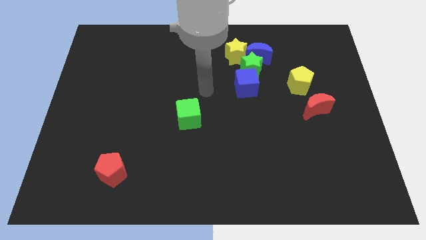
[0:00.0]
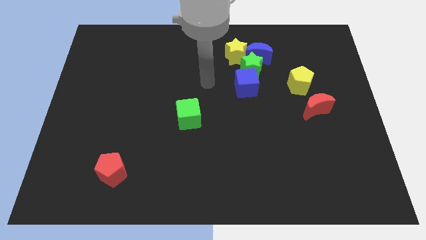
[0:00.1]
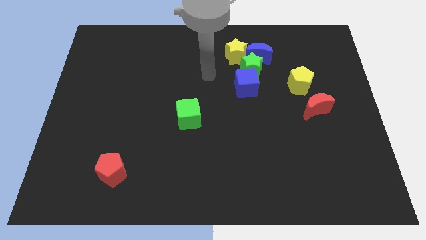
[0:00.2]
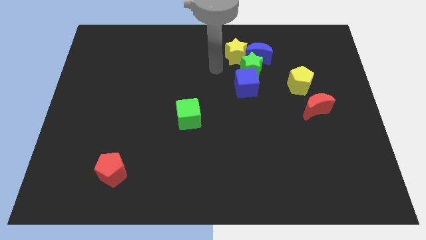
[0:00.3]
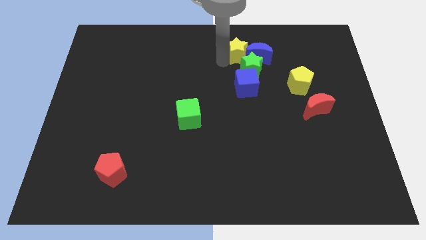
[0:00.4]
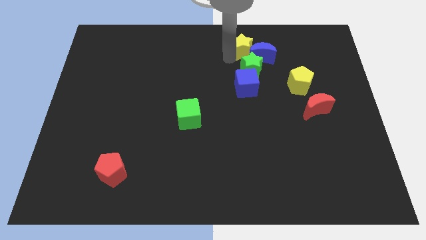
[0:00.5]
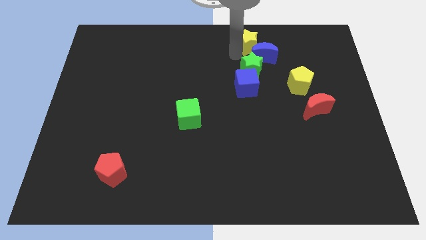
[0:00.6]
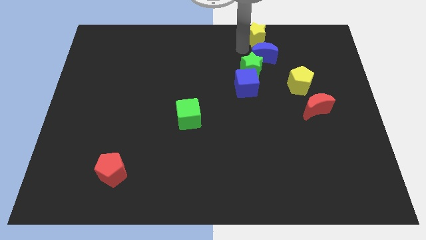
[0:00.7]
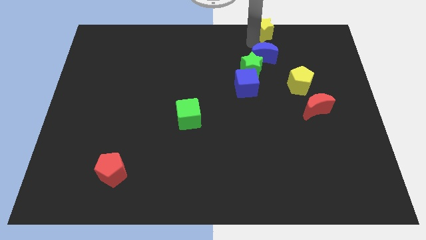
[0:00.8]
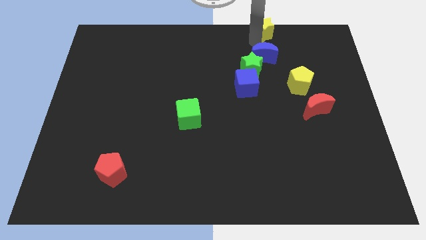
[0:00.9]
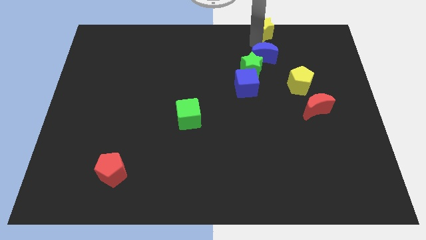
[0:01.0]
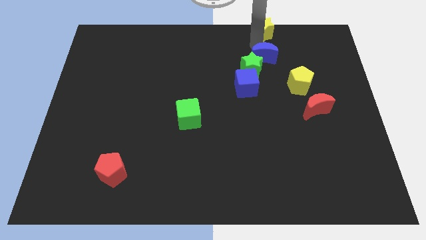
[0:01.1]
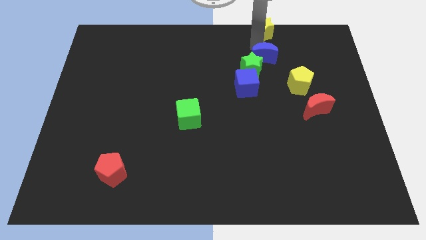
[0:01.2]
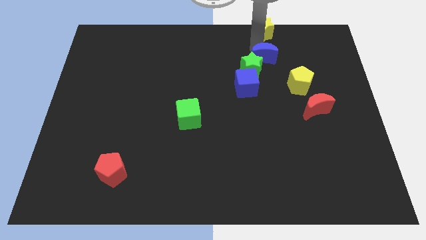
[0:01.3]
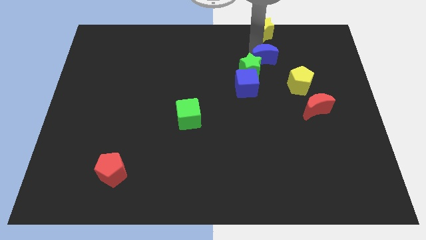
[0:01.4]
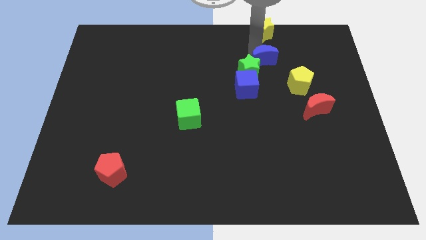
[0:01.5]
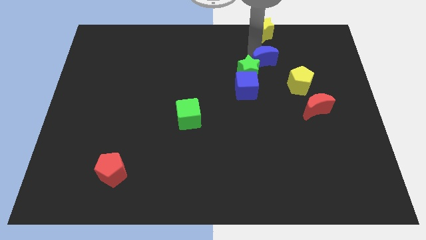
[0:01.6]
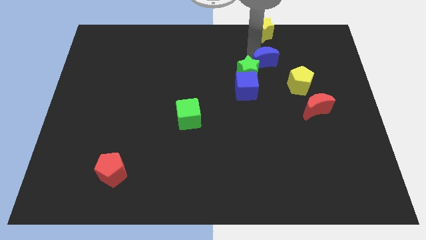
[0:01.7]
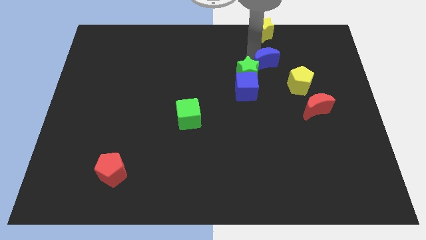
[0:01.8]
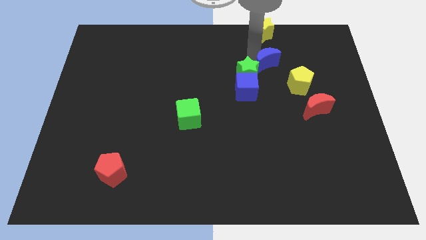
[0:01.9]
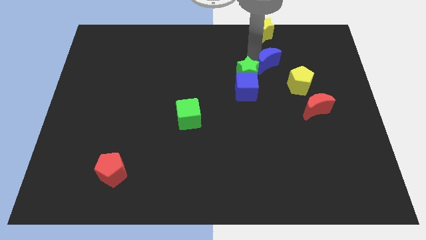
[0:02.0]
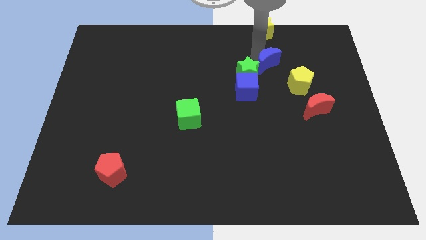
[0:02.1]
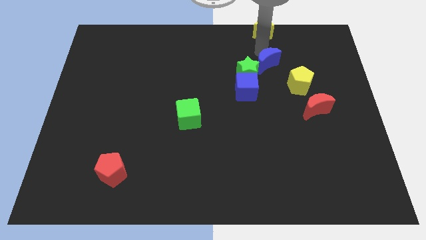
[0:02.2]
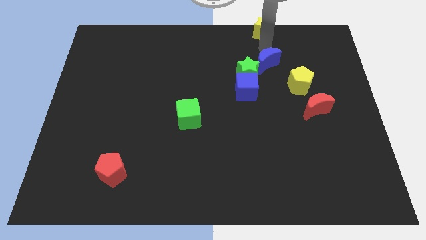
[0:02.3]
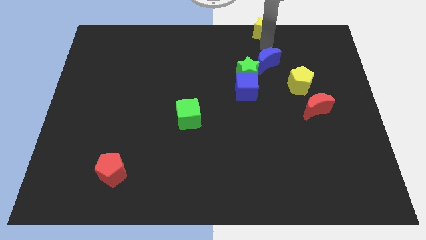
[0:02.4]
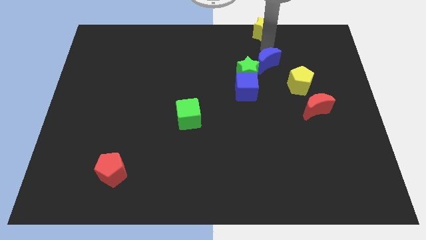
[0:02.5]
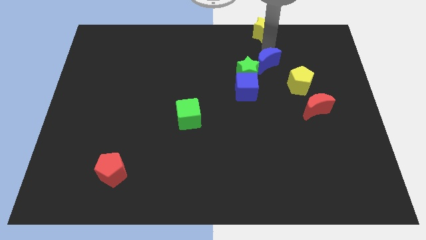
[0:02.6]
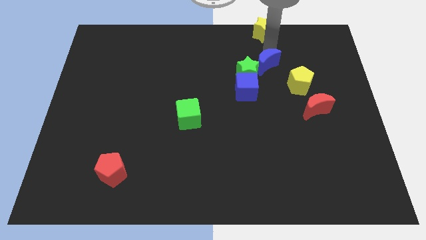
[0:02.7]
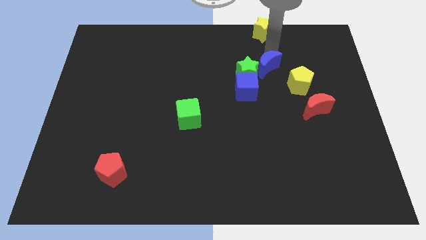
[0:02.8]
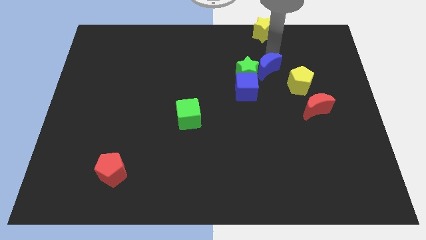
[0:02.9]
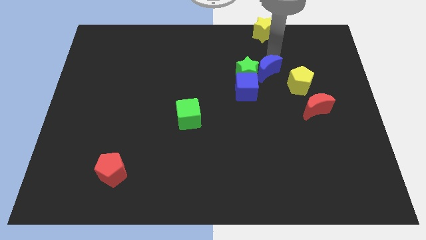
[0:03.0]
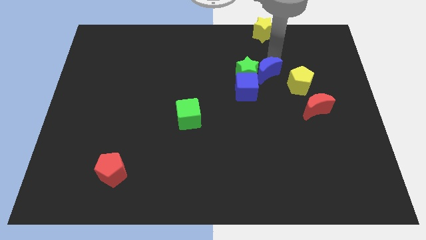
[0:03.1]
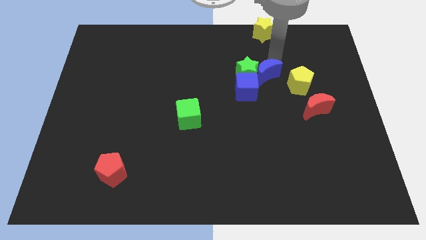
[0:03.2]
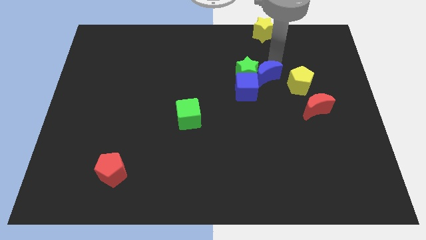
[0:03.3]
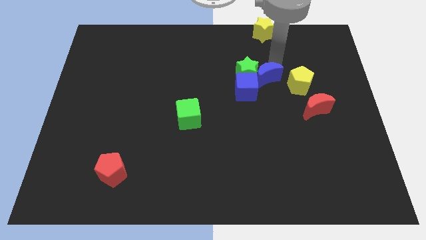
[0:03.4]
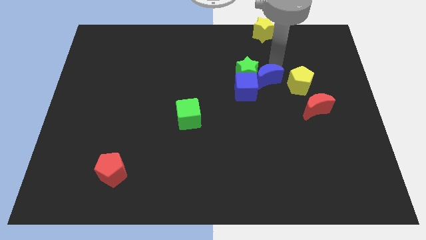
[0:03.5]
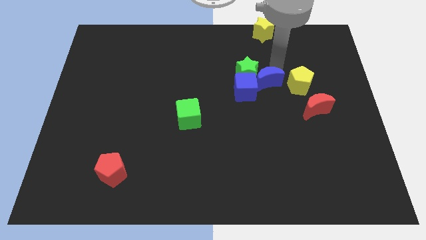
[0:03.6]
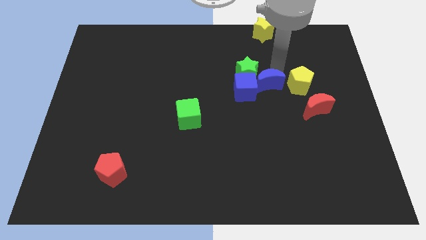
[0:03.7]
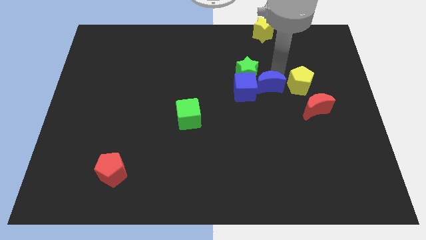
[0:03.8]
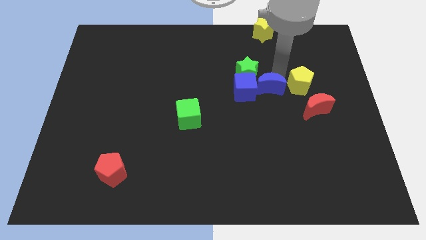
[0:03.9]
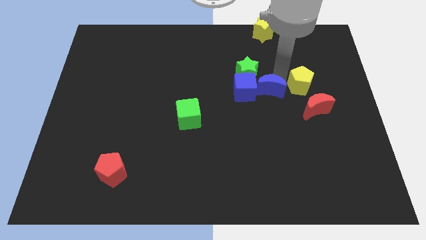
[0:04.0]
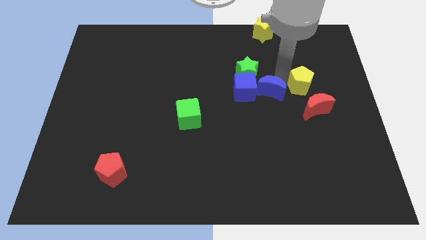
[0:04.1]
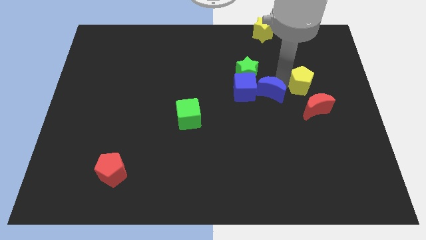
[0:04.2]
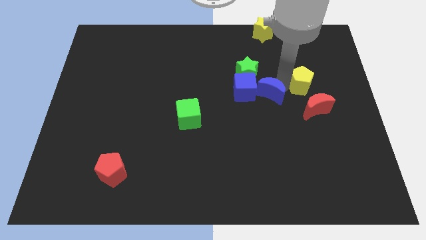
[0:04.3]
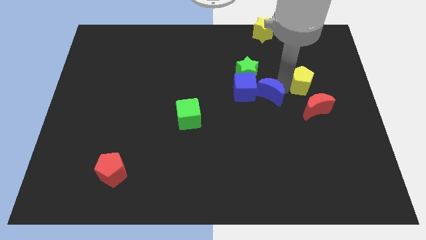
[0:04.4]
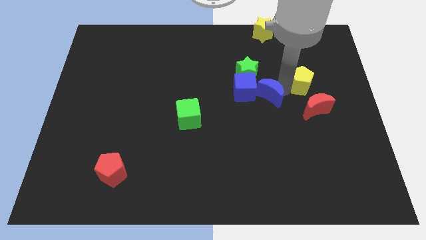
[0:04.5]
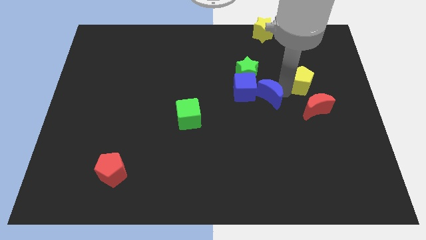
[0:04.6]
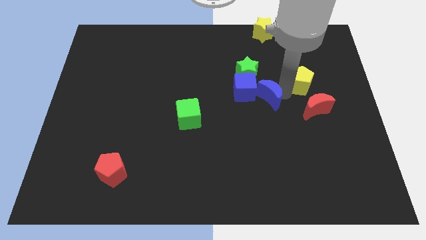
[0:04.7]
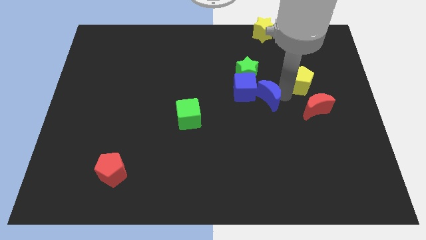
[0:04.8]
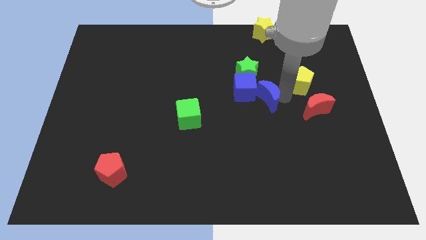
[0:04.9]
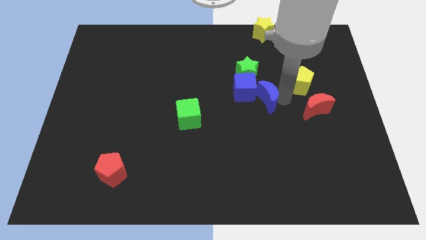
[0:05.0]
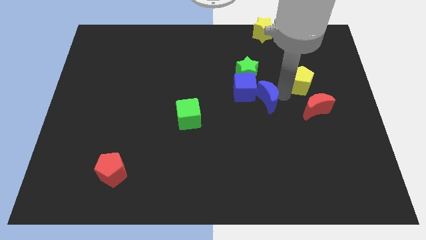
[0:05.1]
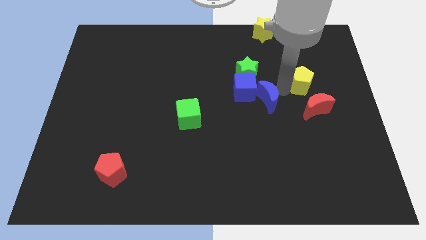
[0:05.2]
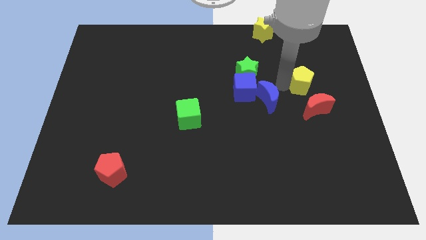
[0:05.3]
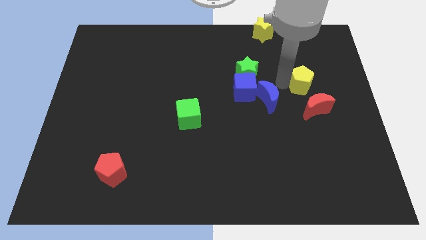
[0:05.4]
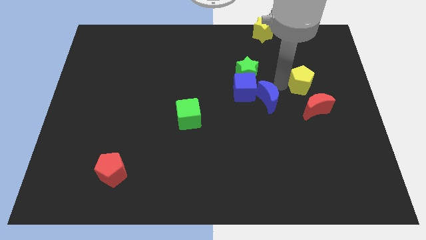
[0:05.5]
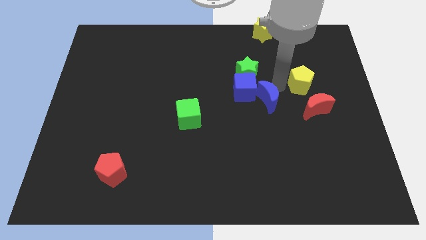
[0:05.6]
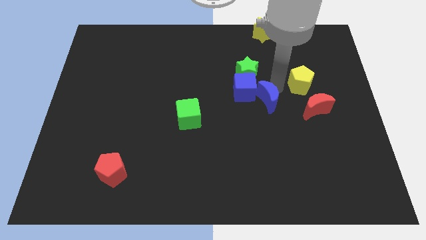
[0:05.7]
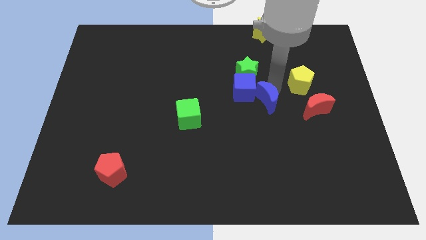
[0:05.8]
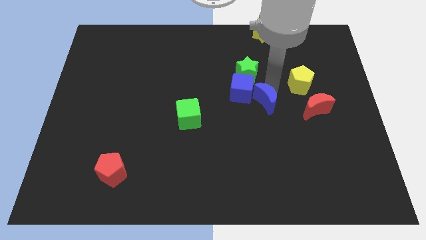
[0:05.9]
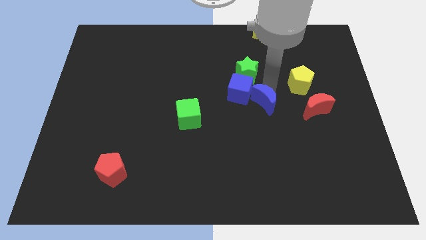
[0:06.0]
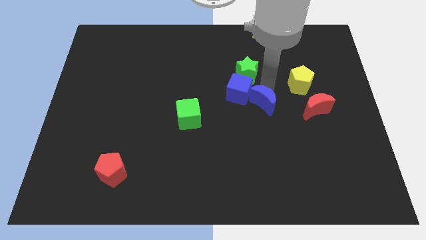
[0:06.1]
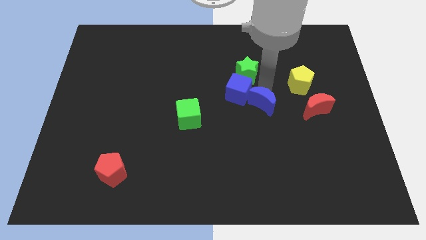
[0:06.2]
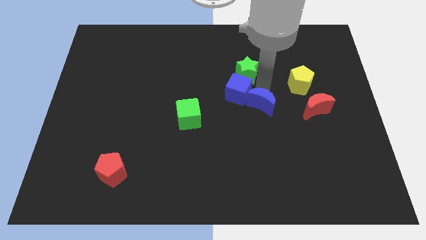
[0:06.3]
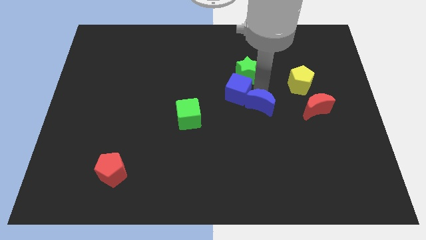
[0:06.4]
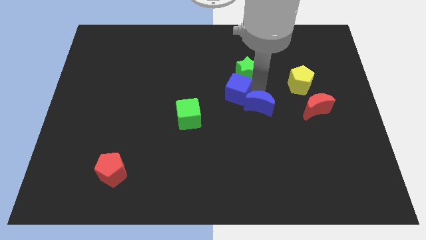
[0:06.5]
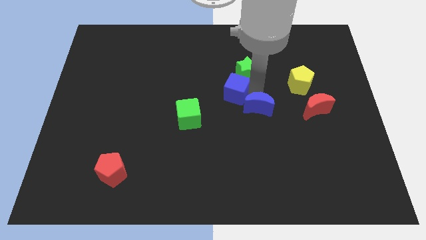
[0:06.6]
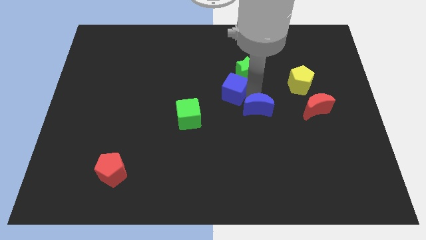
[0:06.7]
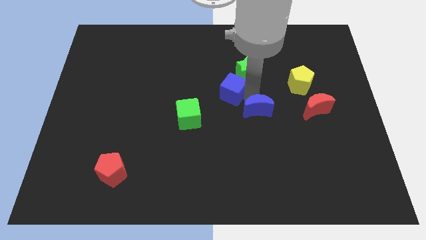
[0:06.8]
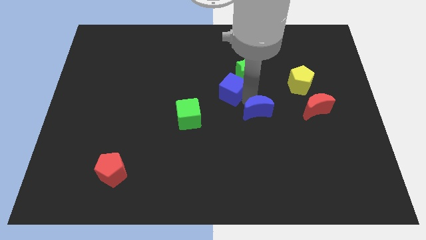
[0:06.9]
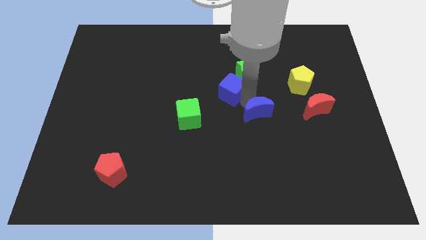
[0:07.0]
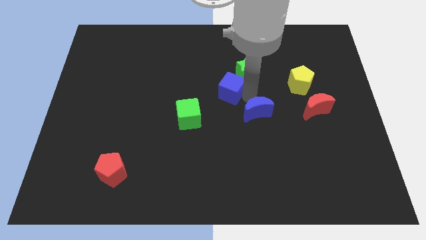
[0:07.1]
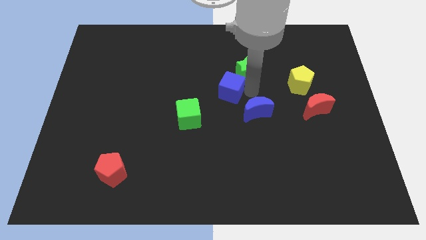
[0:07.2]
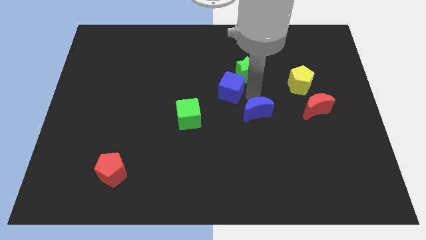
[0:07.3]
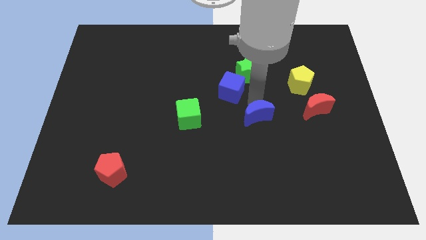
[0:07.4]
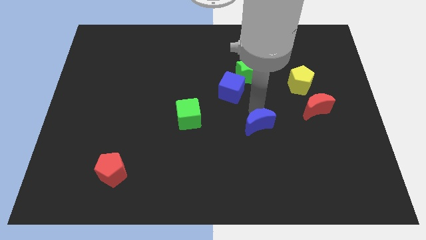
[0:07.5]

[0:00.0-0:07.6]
move the blue moon downwards

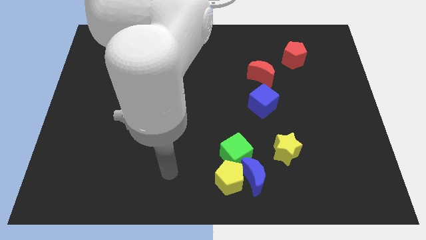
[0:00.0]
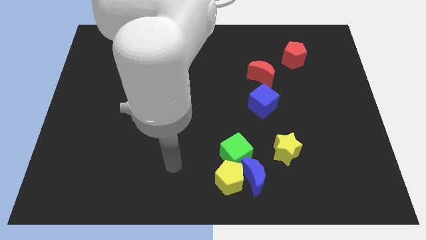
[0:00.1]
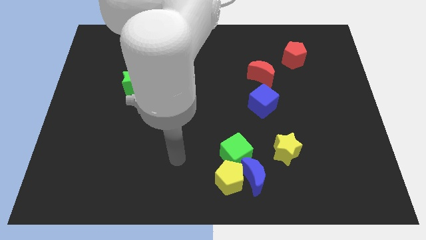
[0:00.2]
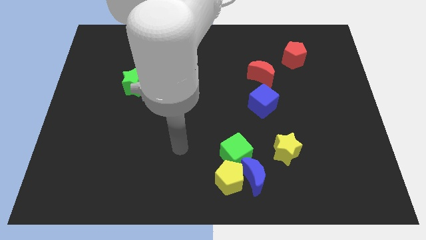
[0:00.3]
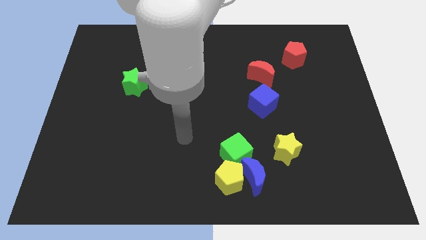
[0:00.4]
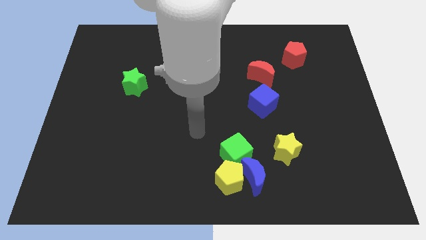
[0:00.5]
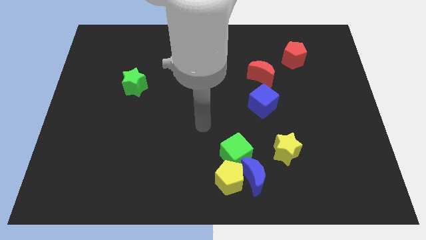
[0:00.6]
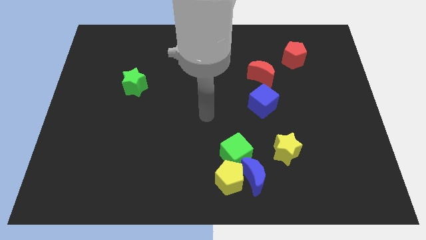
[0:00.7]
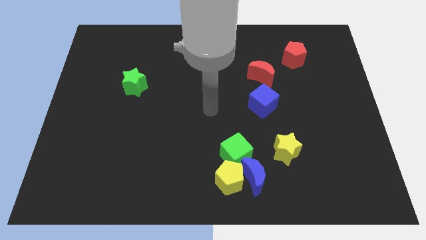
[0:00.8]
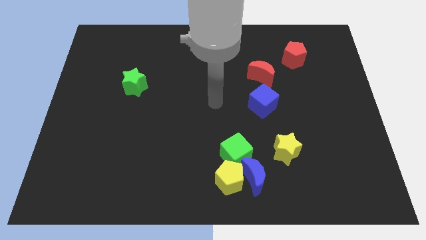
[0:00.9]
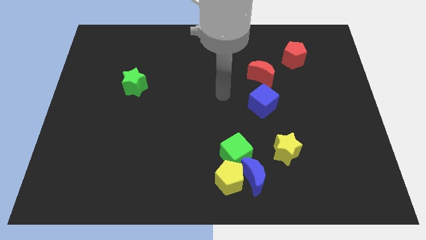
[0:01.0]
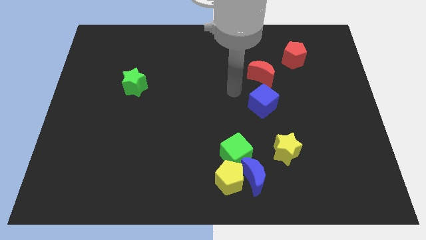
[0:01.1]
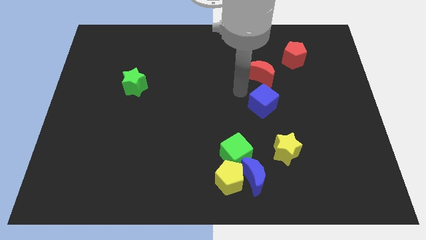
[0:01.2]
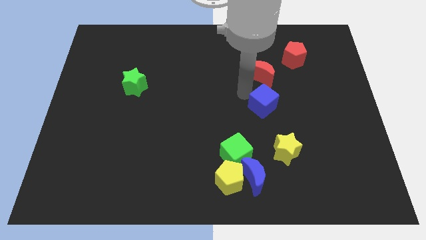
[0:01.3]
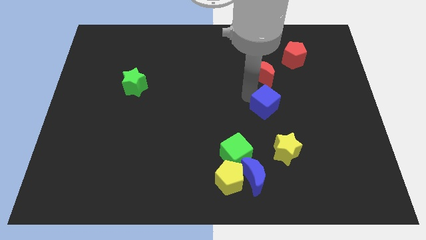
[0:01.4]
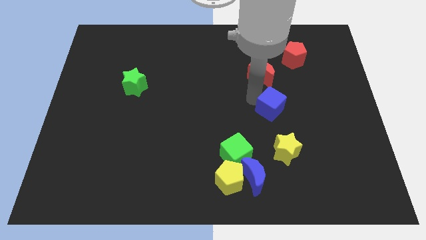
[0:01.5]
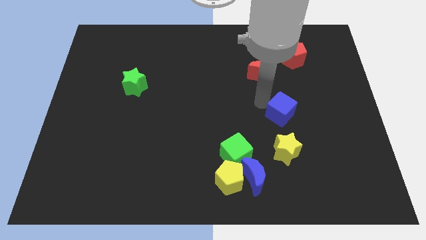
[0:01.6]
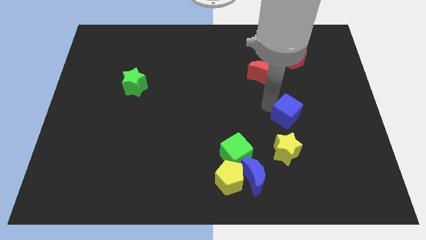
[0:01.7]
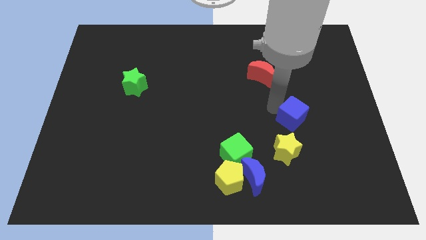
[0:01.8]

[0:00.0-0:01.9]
push the blue cube somewhat diagonally down and to the right
